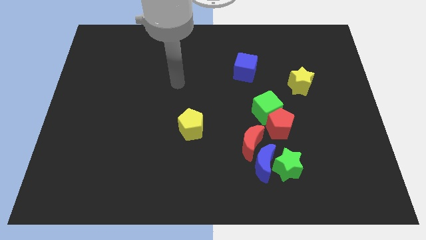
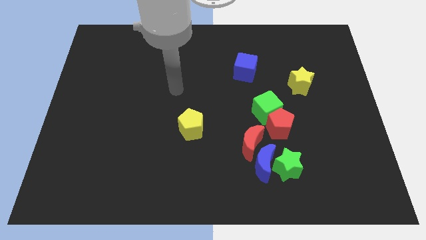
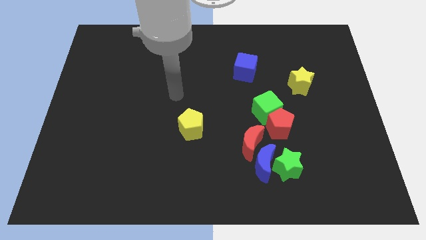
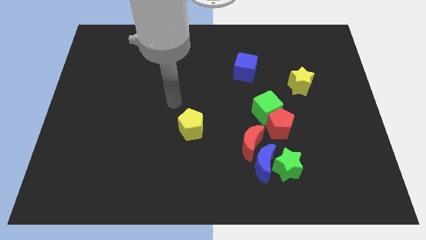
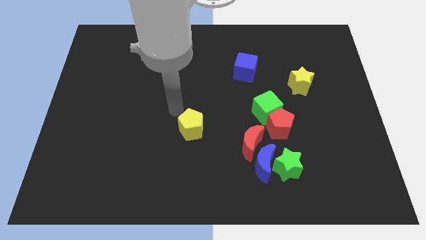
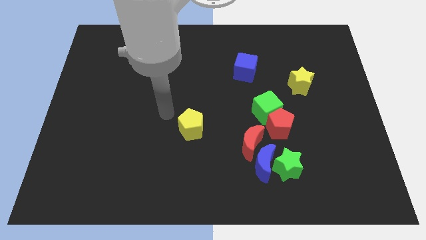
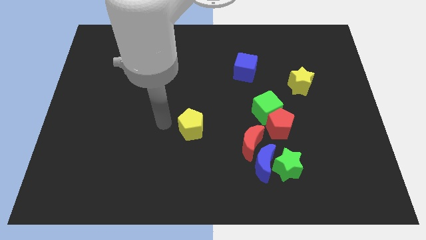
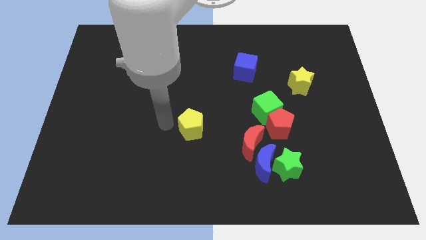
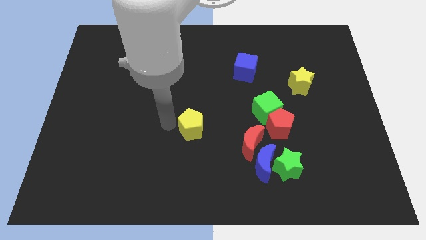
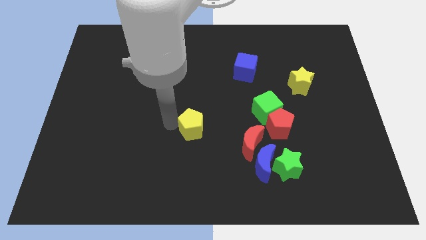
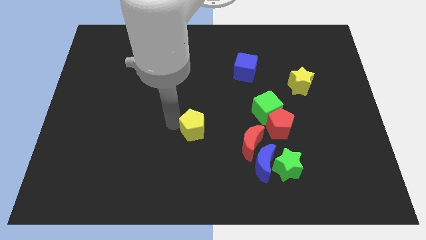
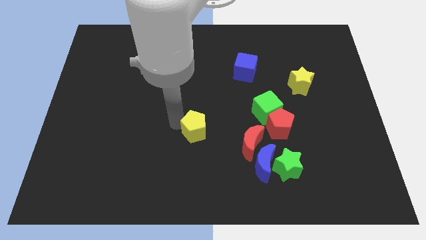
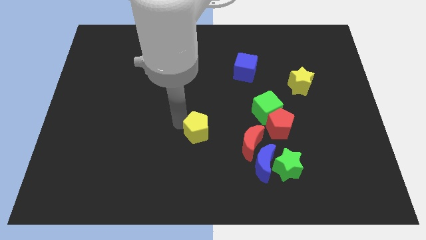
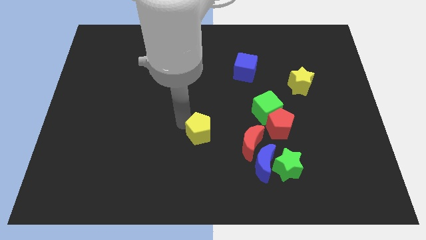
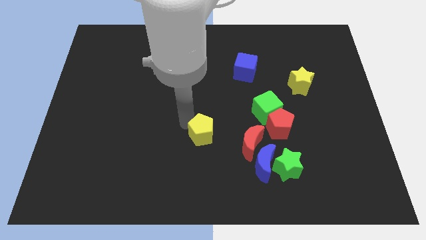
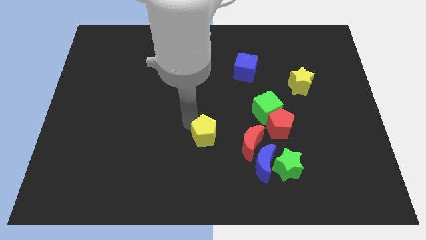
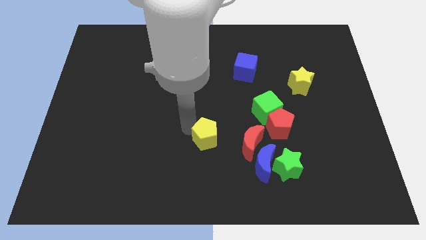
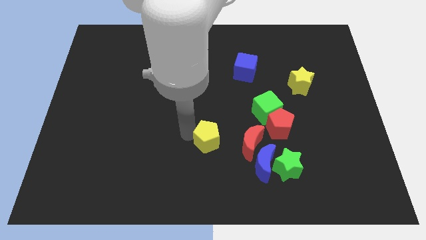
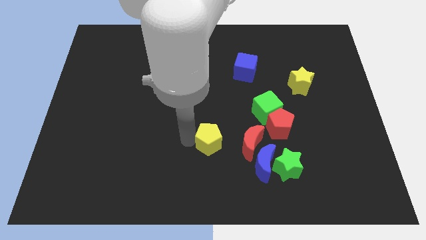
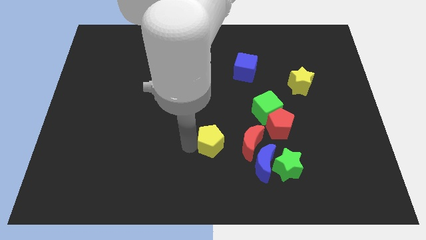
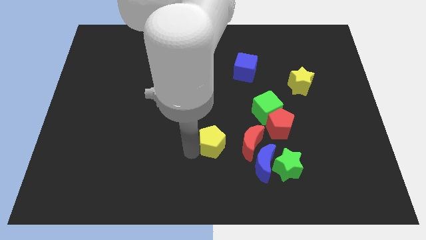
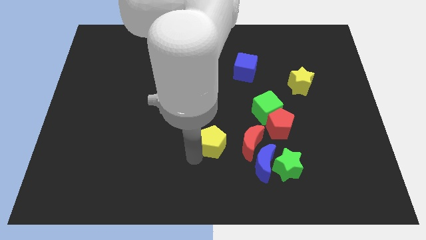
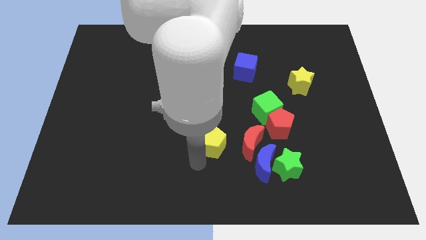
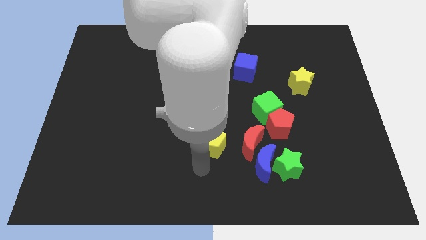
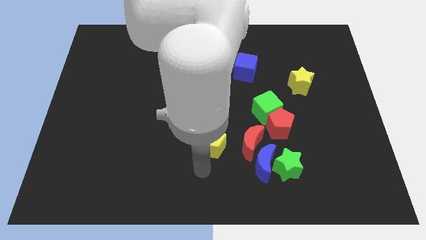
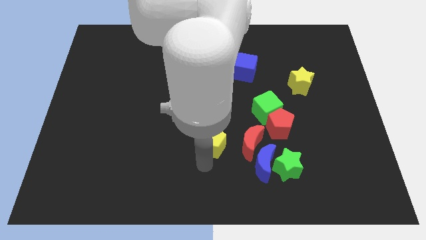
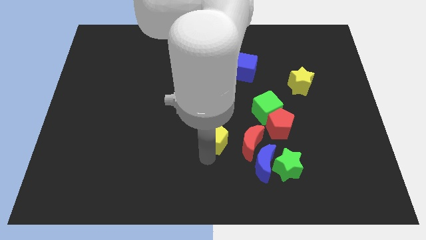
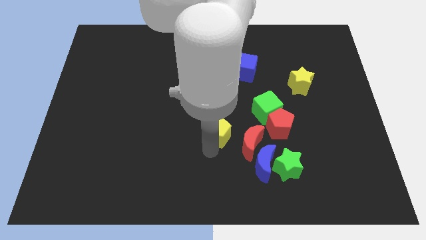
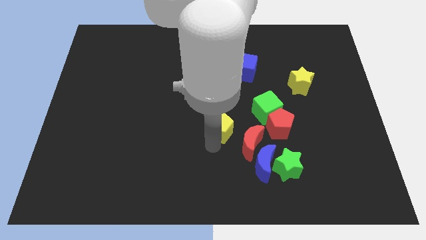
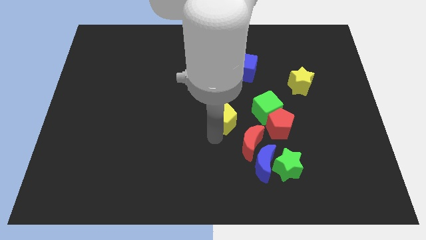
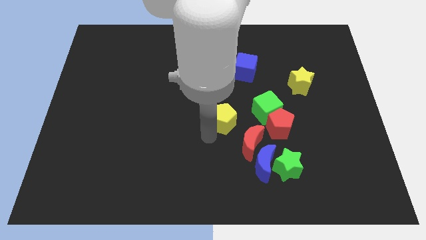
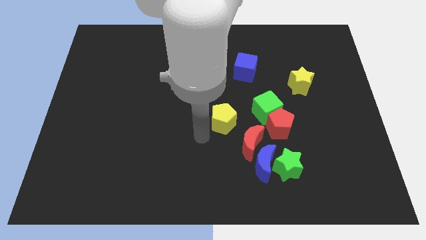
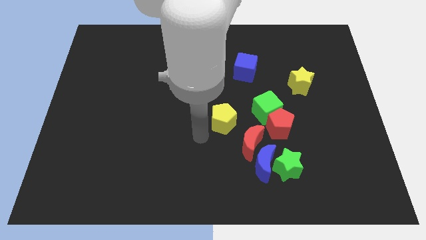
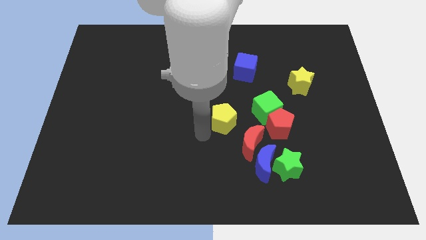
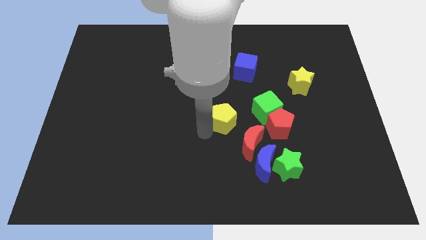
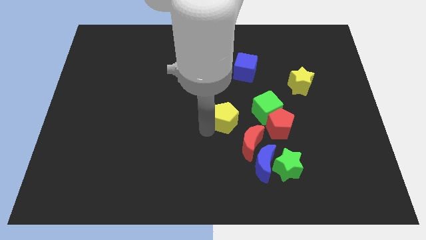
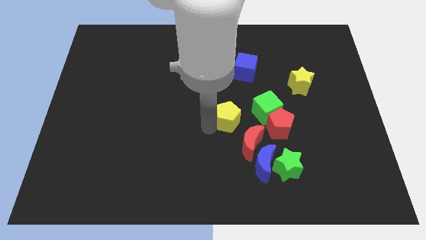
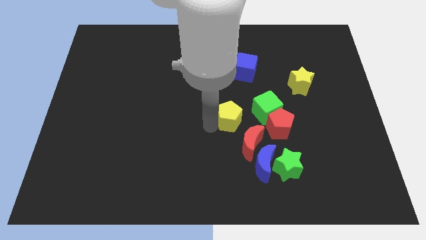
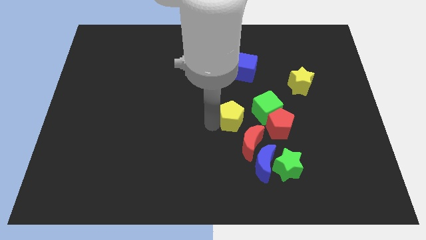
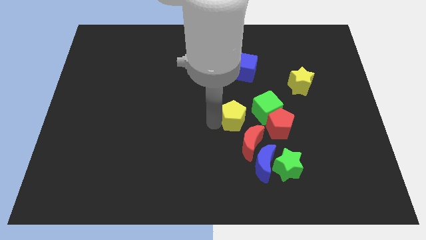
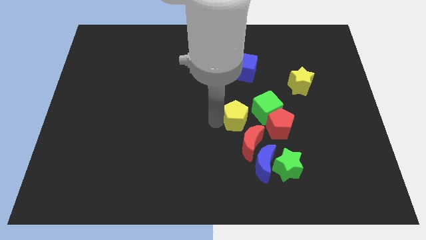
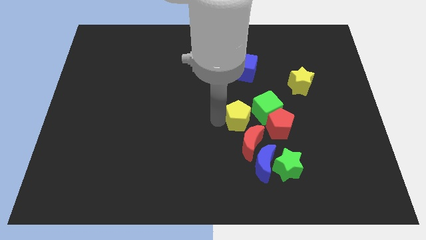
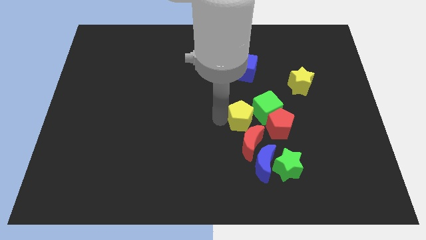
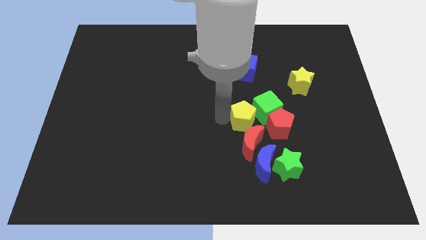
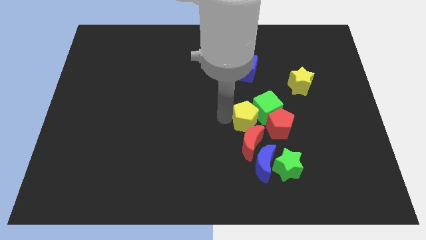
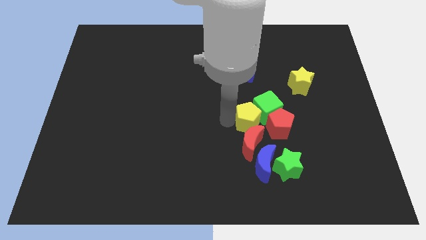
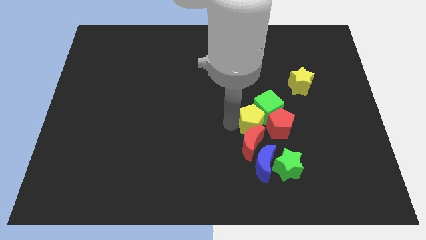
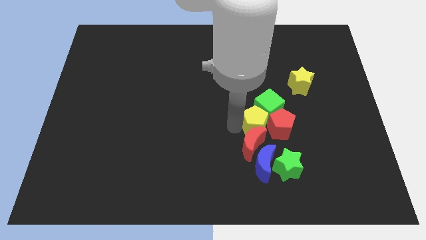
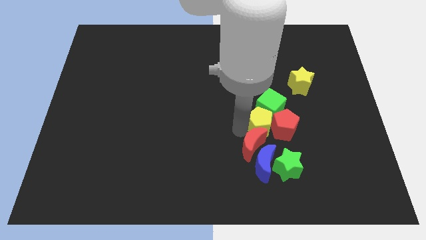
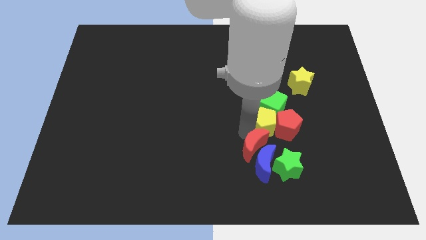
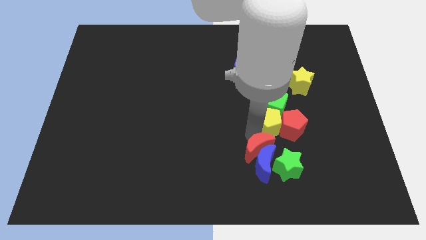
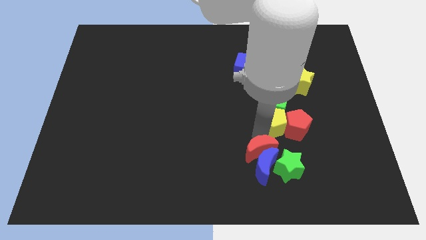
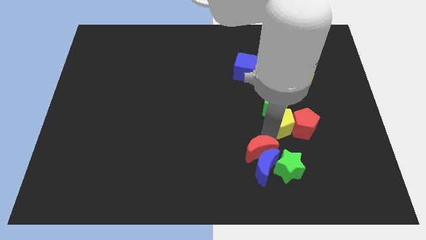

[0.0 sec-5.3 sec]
slide the yellow pentagon right

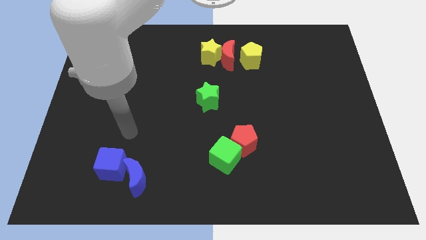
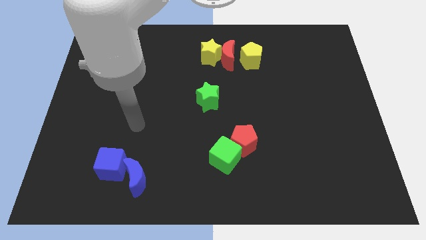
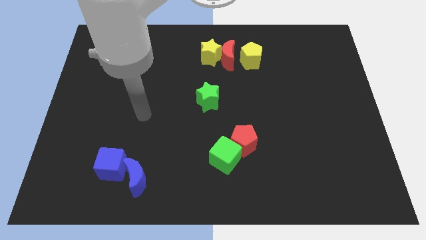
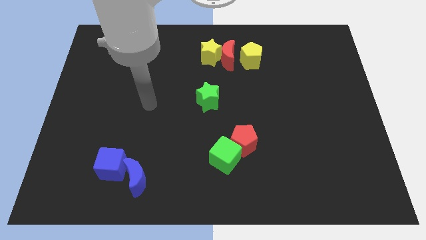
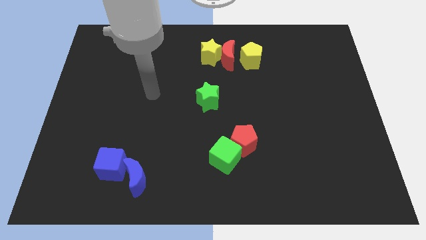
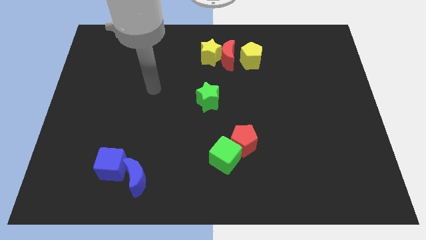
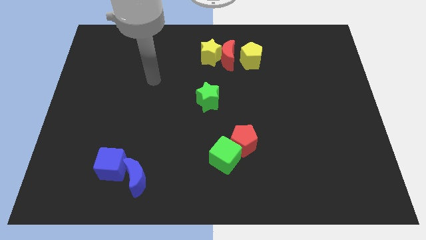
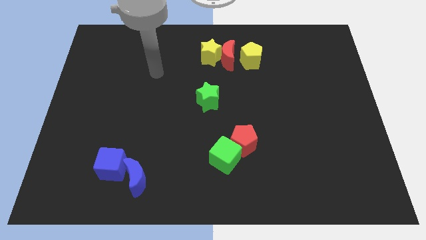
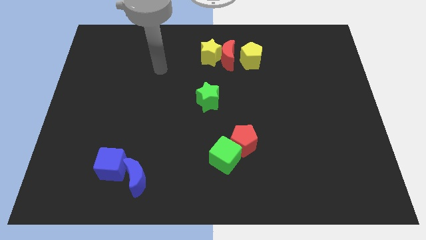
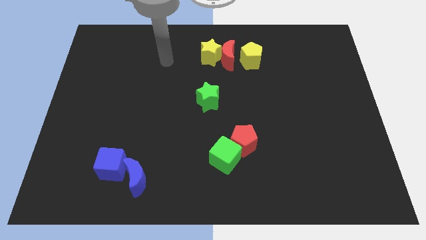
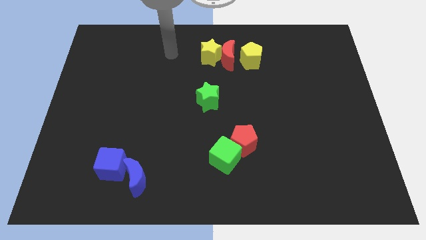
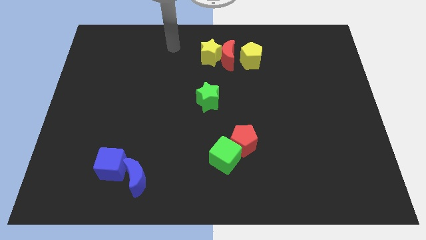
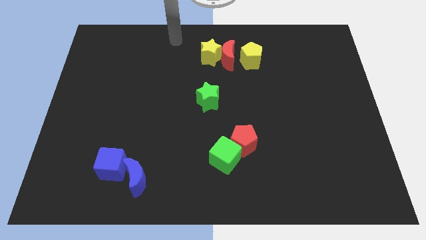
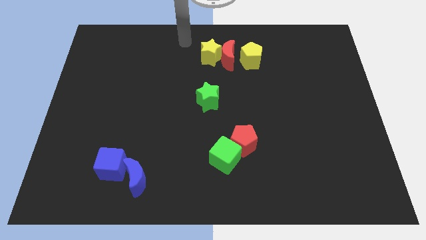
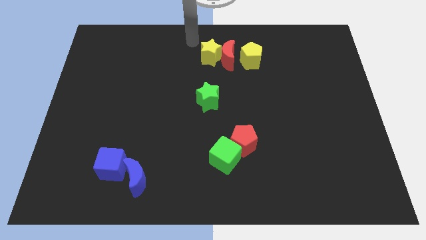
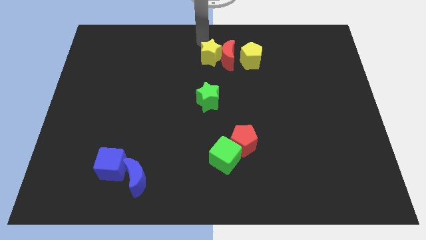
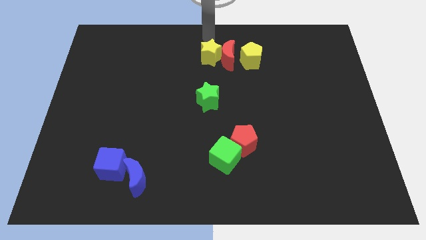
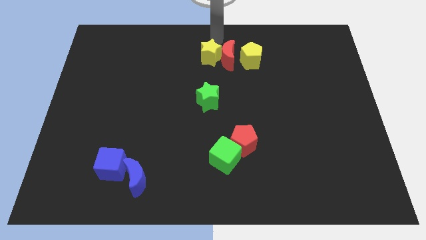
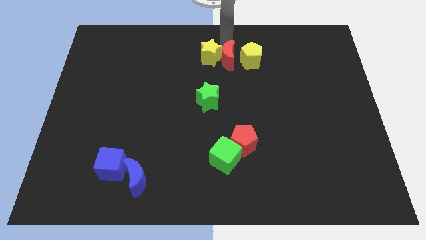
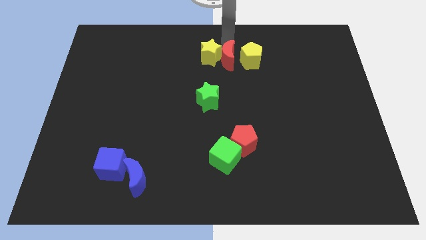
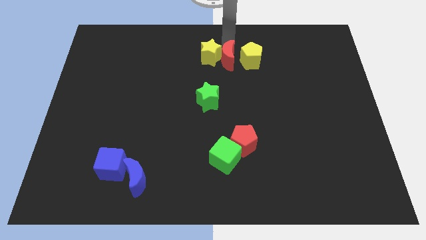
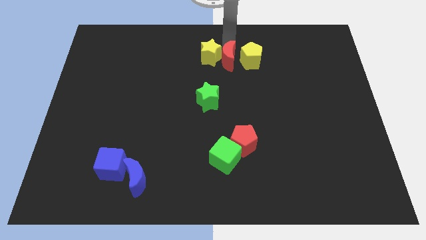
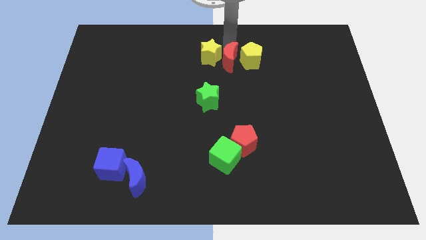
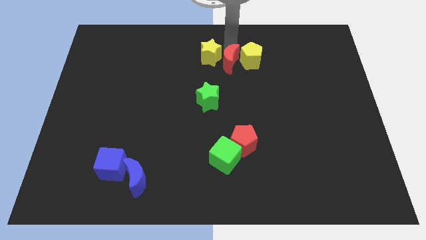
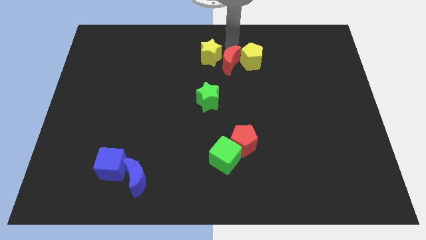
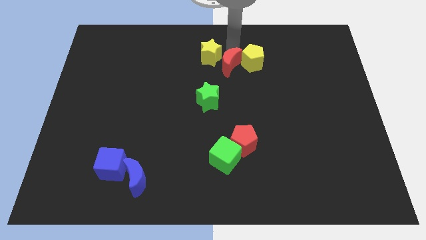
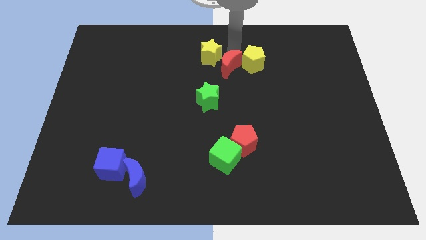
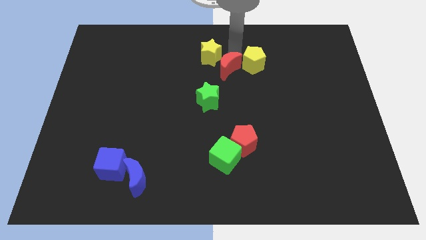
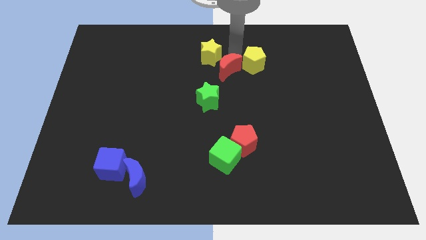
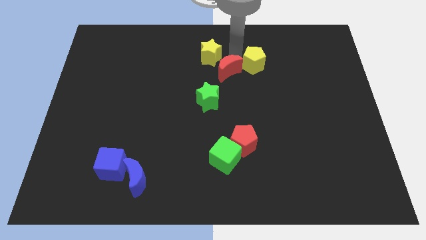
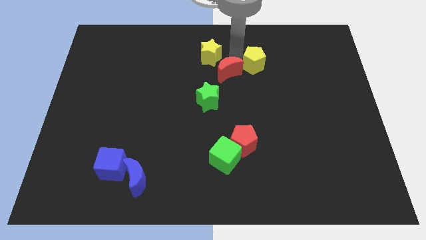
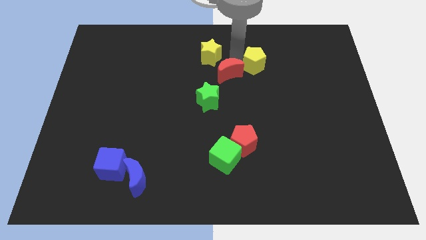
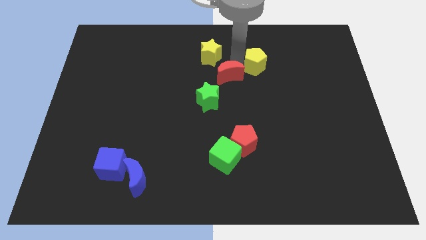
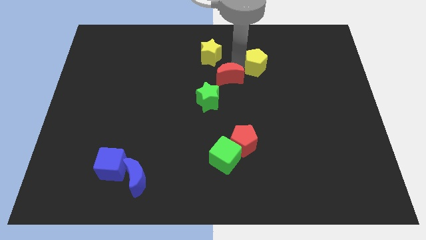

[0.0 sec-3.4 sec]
push the red moon downwards a bit
